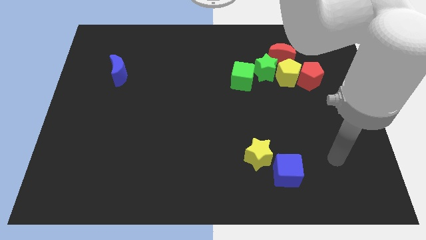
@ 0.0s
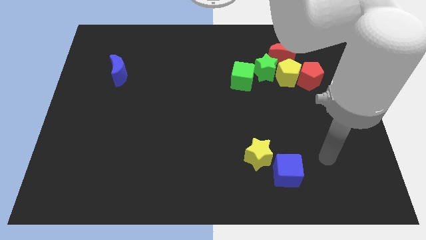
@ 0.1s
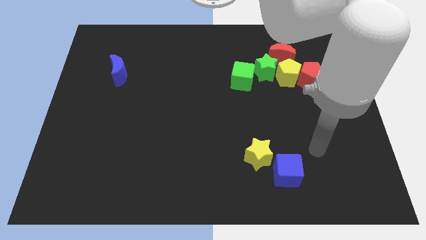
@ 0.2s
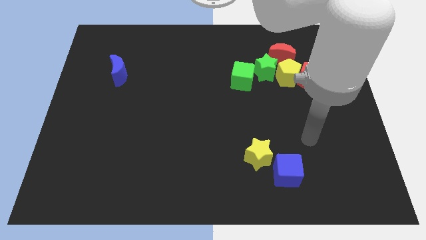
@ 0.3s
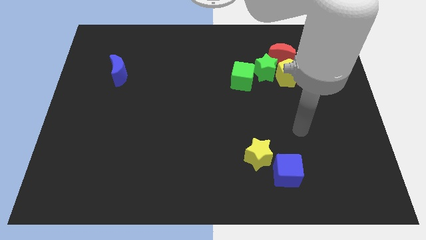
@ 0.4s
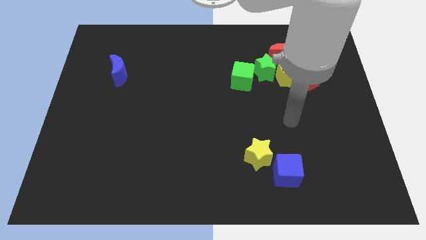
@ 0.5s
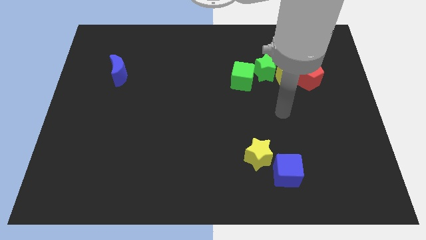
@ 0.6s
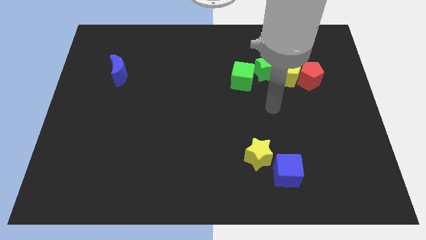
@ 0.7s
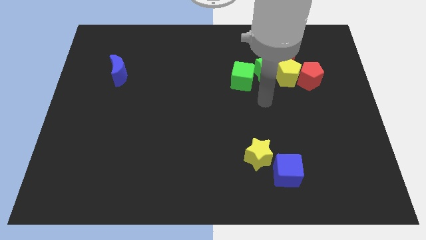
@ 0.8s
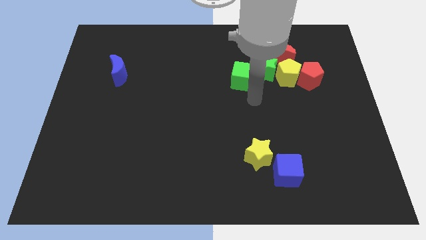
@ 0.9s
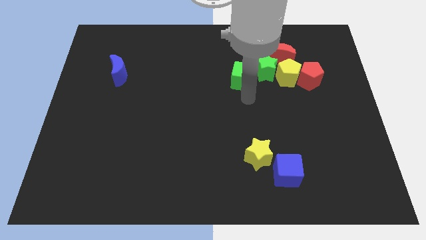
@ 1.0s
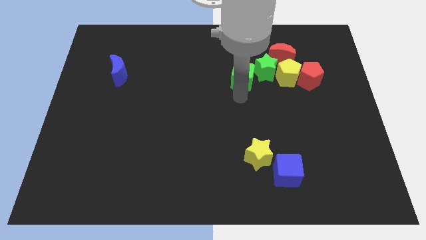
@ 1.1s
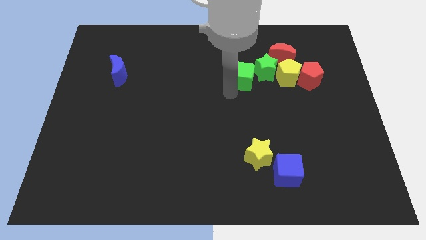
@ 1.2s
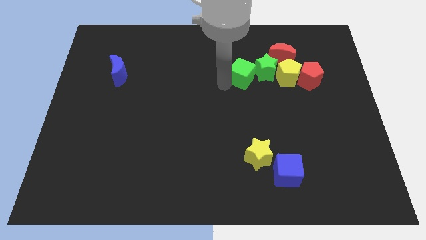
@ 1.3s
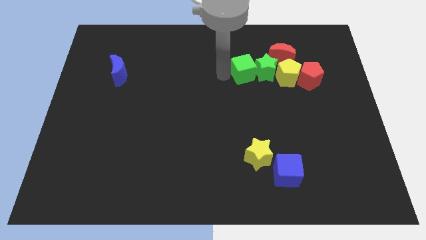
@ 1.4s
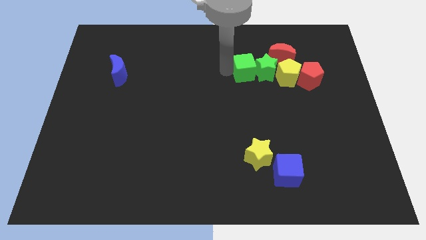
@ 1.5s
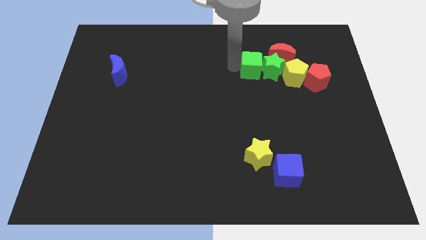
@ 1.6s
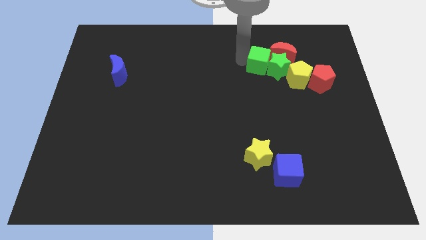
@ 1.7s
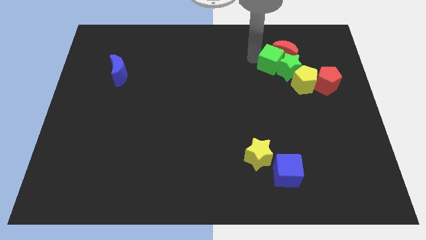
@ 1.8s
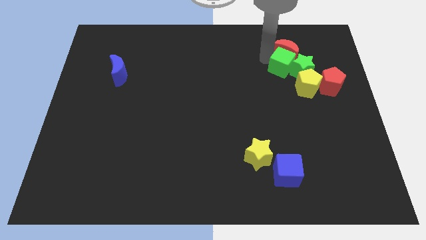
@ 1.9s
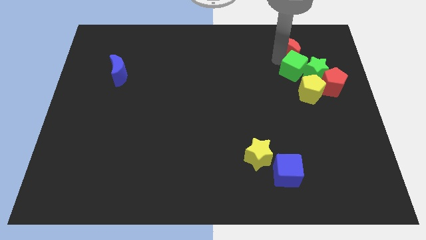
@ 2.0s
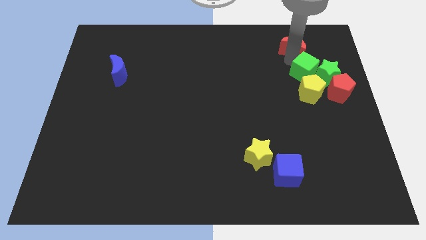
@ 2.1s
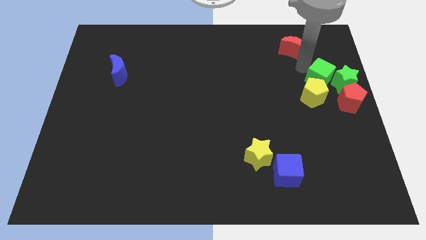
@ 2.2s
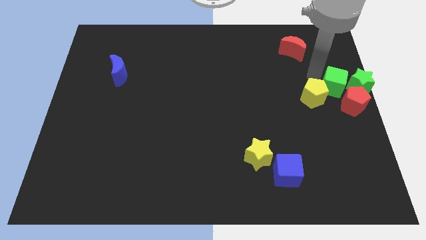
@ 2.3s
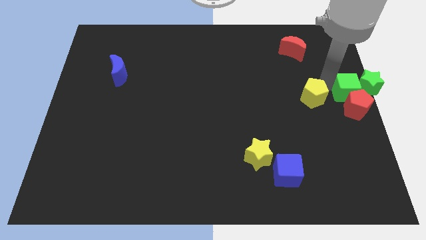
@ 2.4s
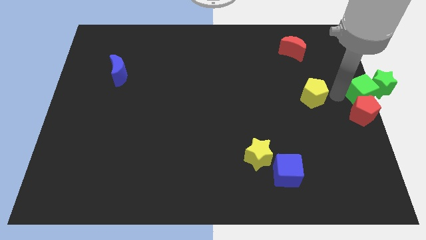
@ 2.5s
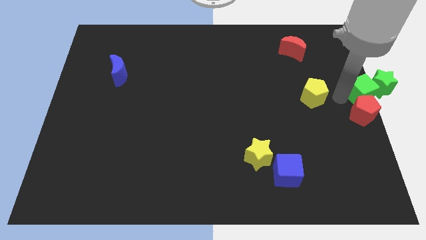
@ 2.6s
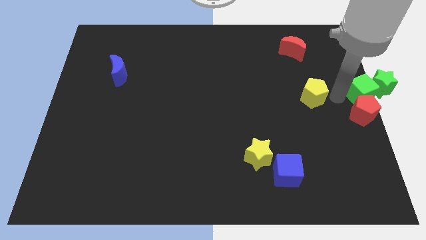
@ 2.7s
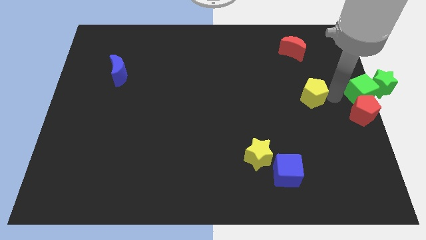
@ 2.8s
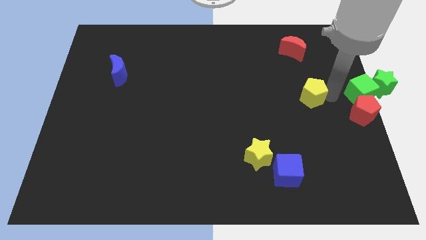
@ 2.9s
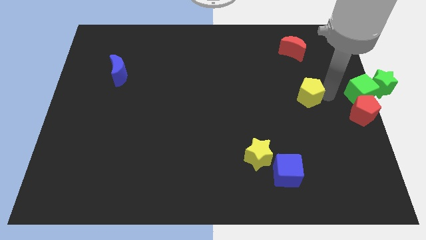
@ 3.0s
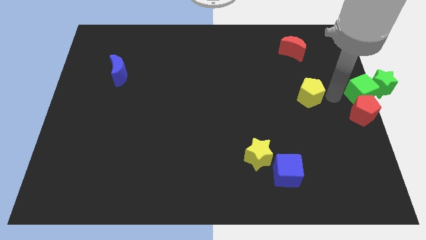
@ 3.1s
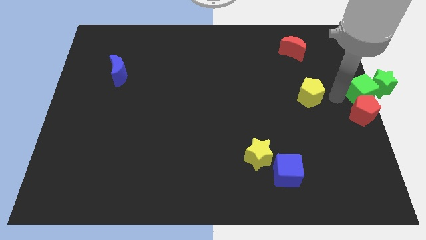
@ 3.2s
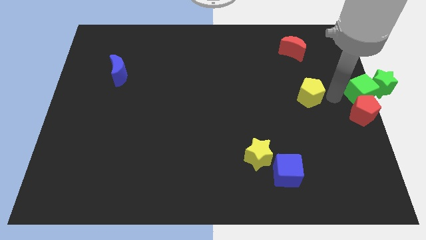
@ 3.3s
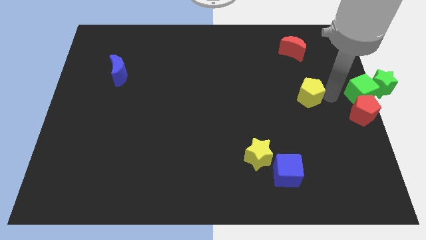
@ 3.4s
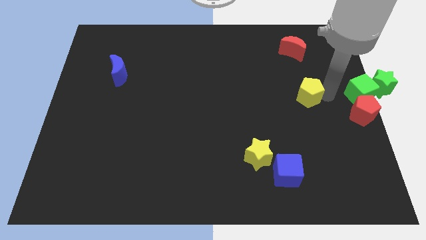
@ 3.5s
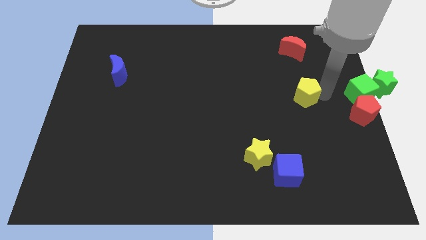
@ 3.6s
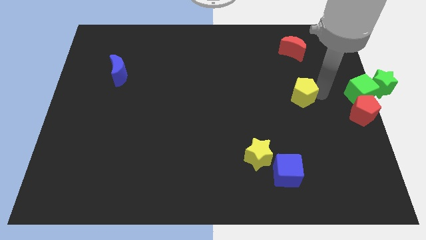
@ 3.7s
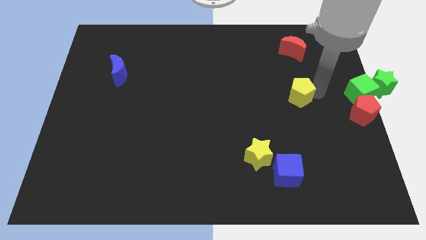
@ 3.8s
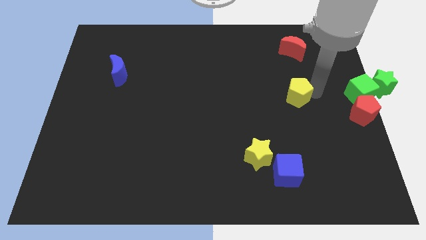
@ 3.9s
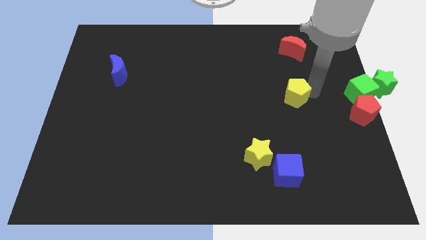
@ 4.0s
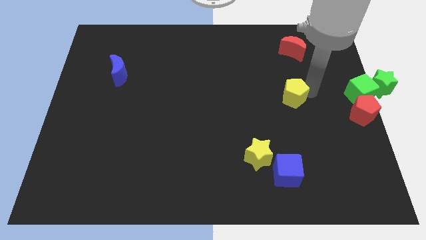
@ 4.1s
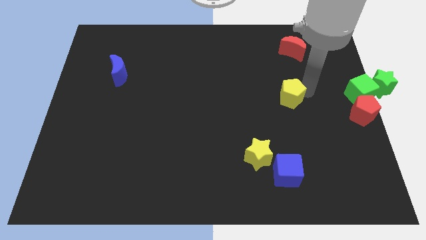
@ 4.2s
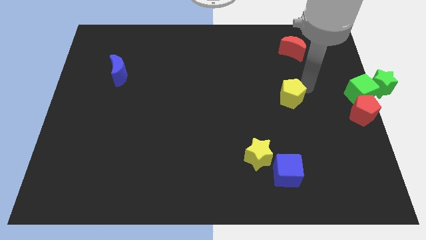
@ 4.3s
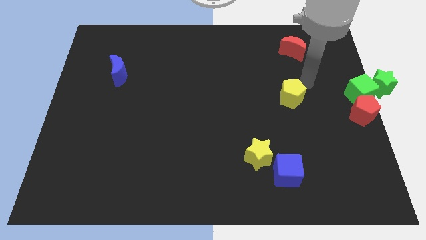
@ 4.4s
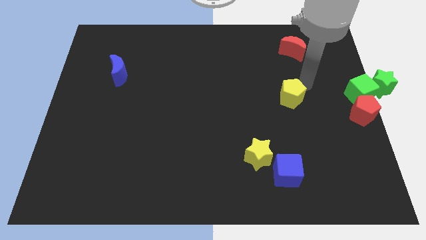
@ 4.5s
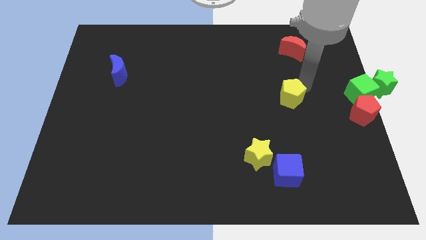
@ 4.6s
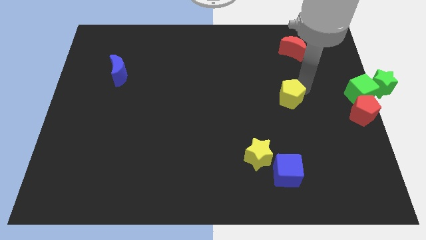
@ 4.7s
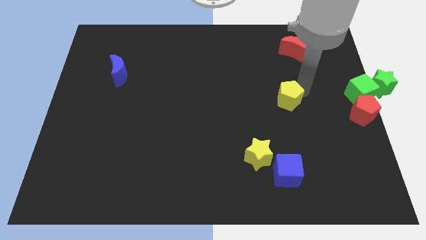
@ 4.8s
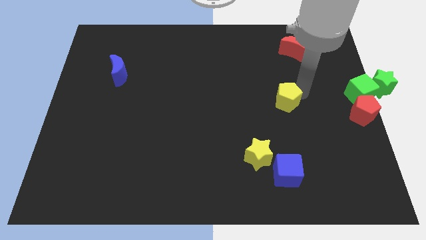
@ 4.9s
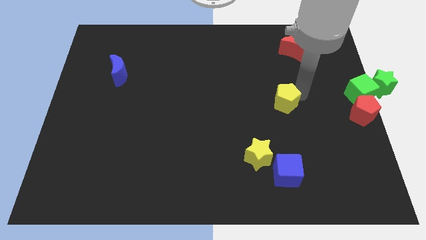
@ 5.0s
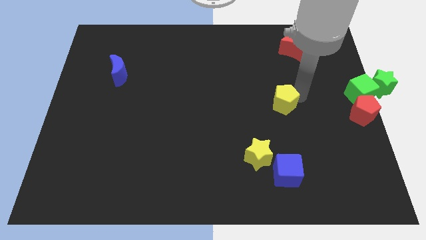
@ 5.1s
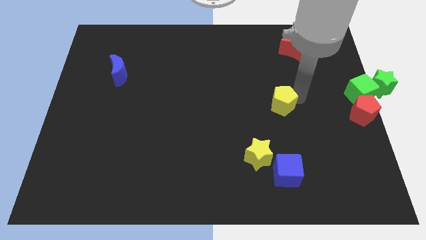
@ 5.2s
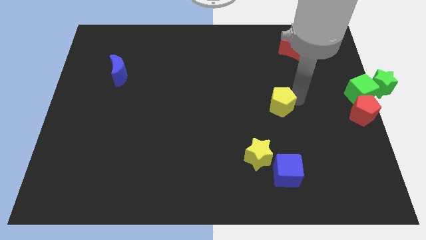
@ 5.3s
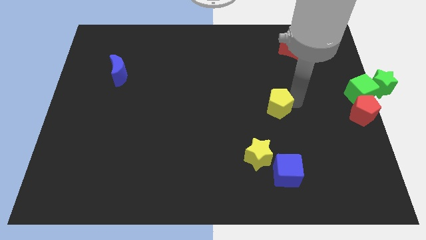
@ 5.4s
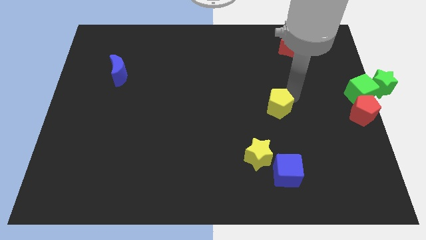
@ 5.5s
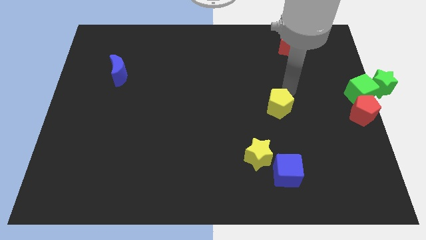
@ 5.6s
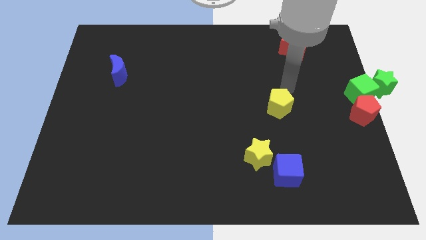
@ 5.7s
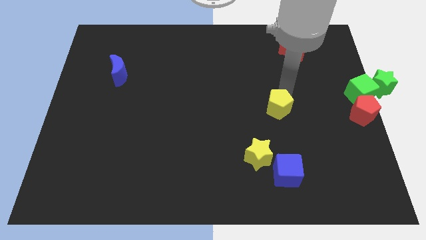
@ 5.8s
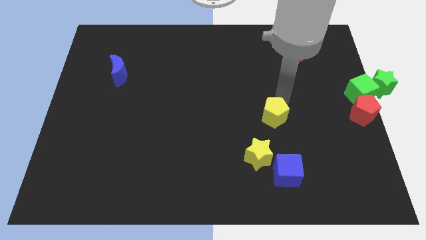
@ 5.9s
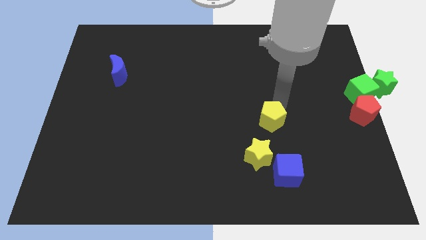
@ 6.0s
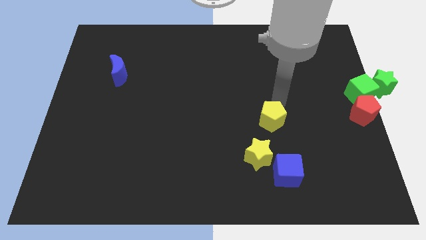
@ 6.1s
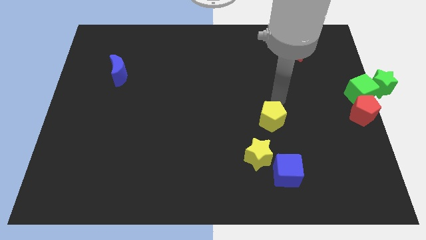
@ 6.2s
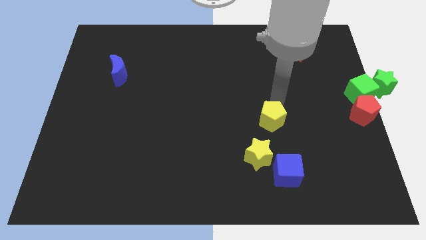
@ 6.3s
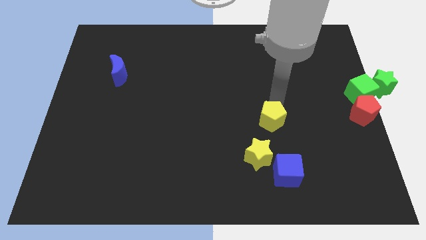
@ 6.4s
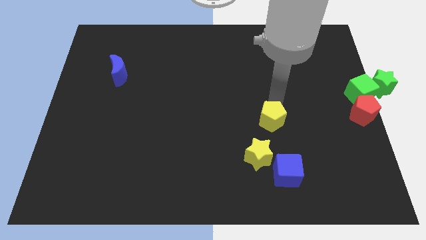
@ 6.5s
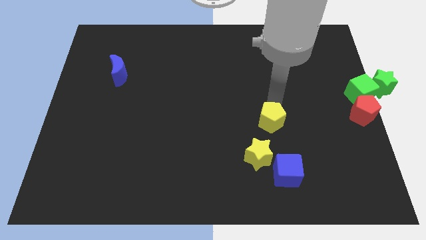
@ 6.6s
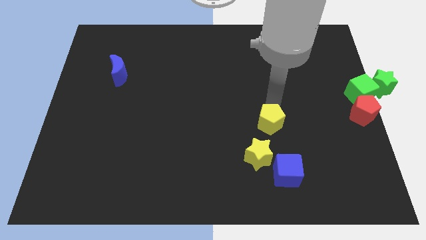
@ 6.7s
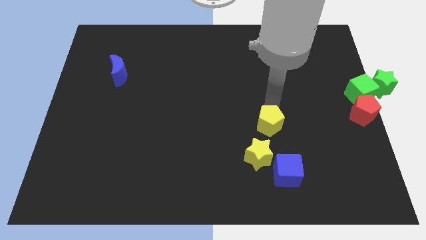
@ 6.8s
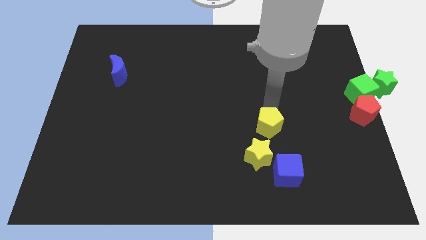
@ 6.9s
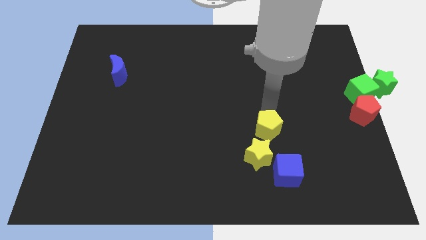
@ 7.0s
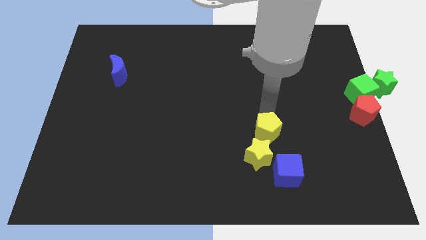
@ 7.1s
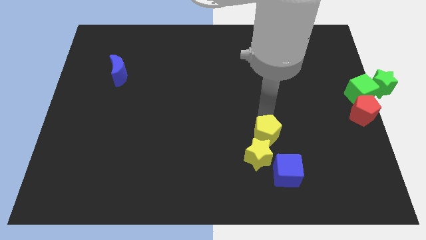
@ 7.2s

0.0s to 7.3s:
slide the yellow pentagon close to the yellow star
